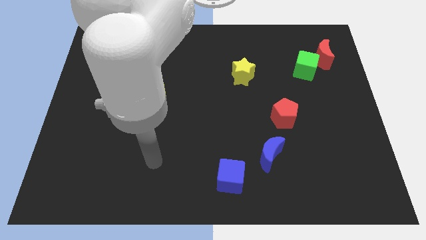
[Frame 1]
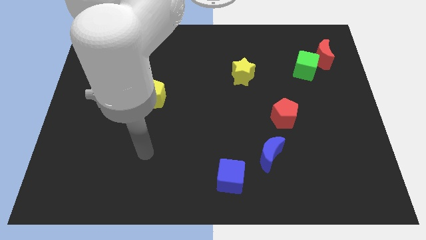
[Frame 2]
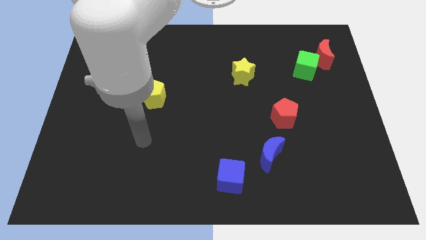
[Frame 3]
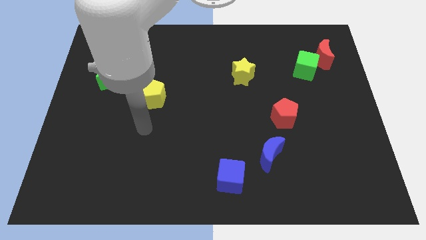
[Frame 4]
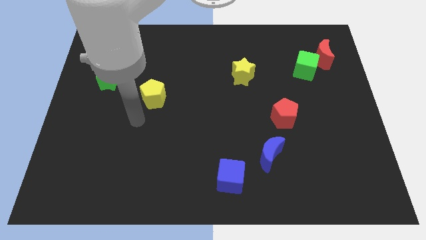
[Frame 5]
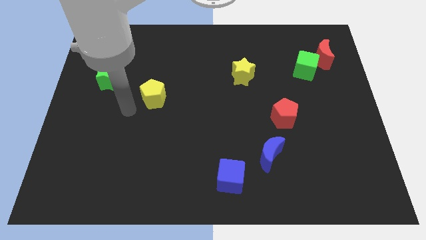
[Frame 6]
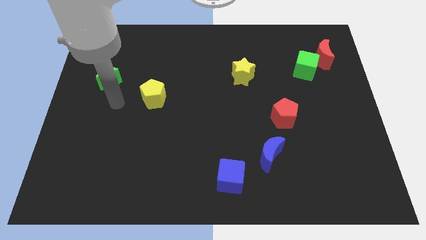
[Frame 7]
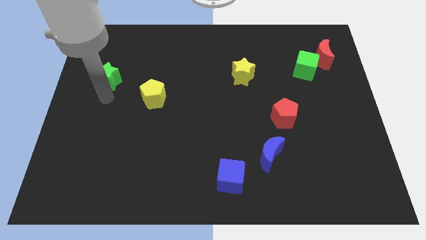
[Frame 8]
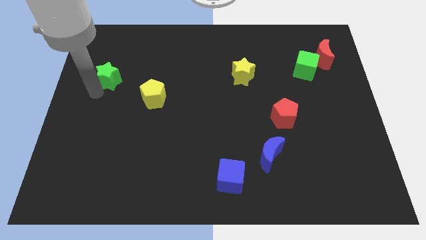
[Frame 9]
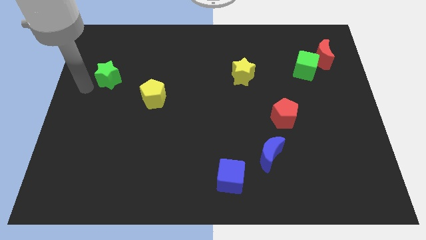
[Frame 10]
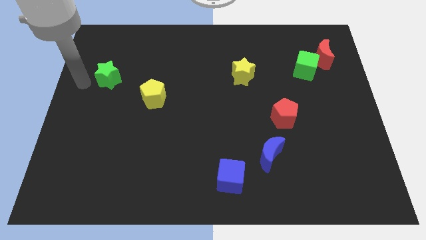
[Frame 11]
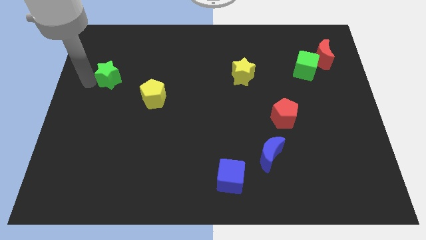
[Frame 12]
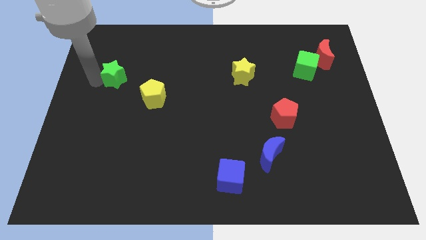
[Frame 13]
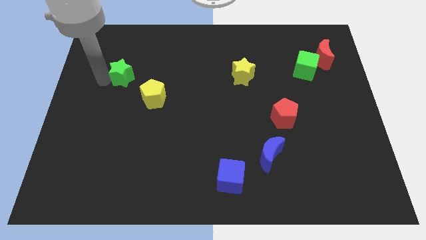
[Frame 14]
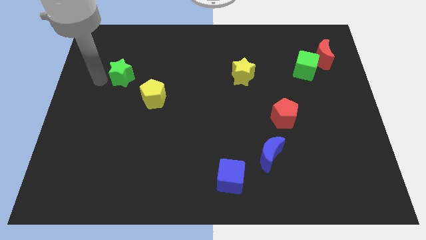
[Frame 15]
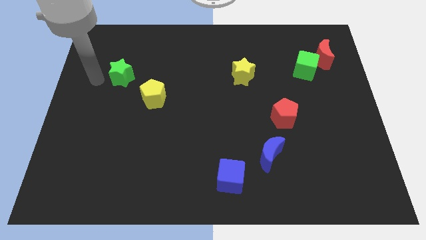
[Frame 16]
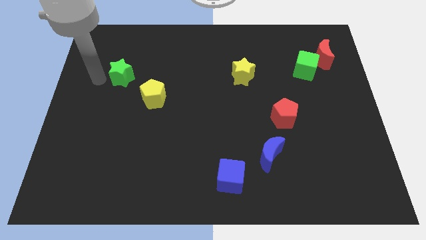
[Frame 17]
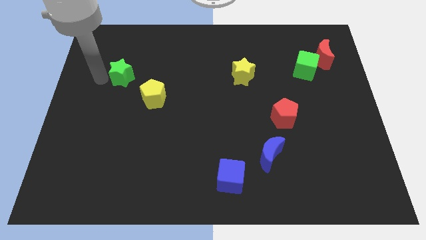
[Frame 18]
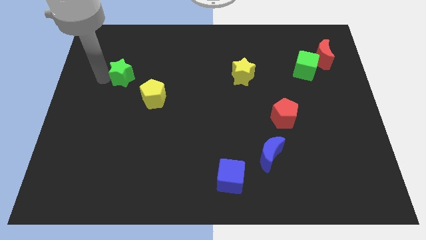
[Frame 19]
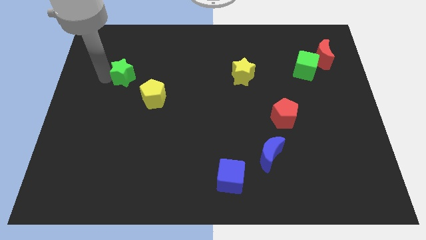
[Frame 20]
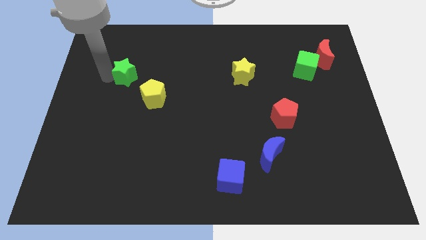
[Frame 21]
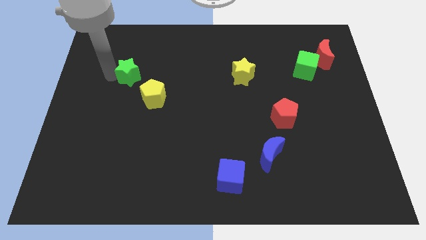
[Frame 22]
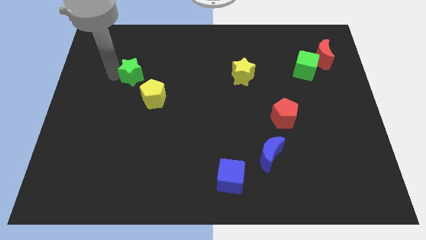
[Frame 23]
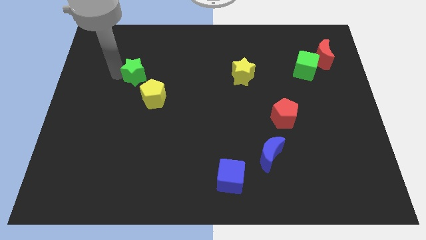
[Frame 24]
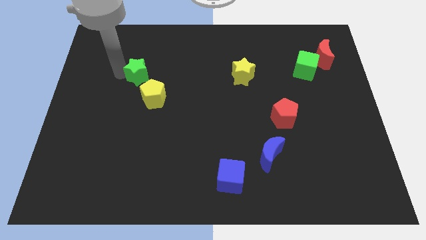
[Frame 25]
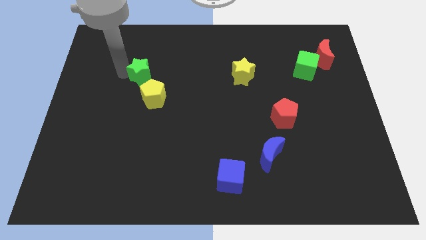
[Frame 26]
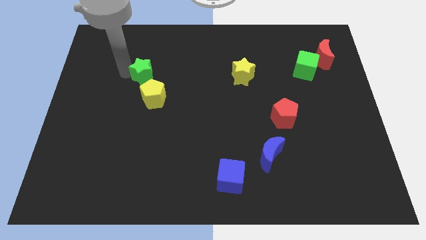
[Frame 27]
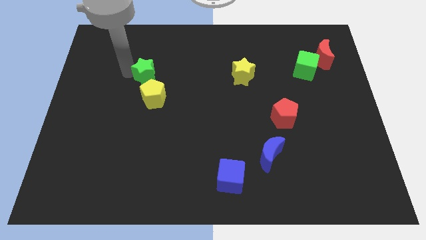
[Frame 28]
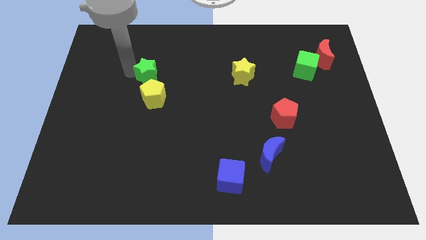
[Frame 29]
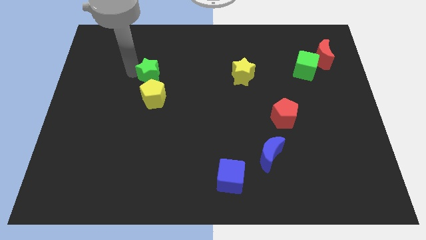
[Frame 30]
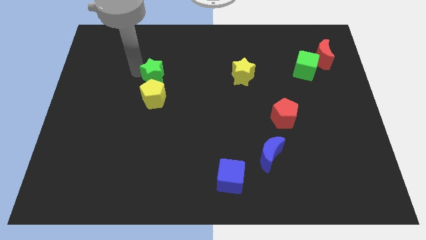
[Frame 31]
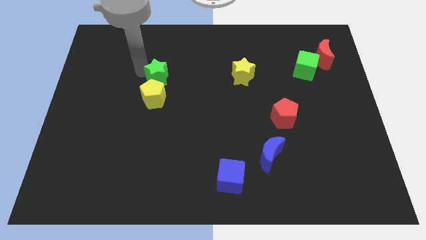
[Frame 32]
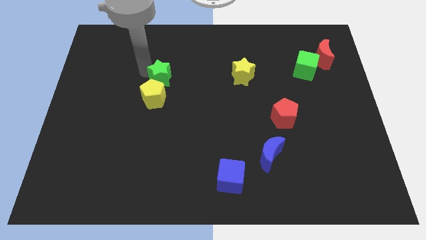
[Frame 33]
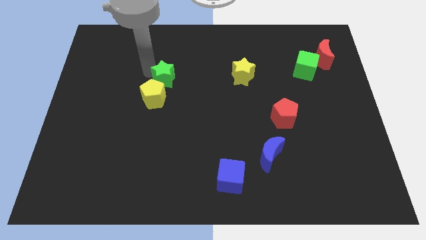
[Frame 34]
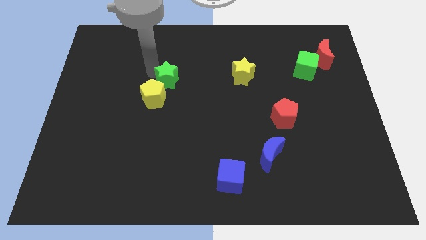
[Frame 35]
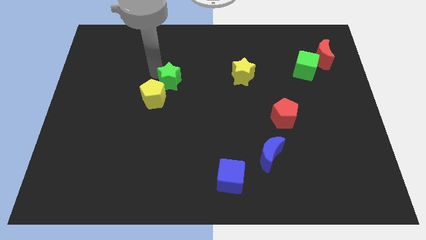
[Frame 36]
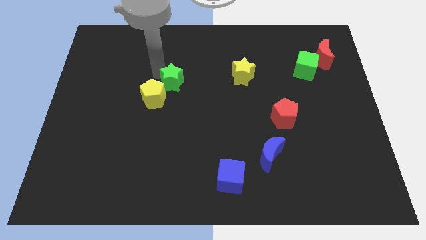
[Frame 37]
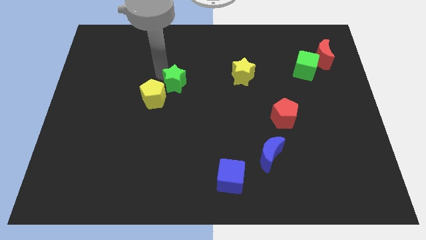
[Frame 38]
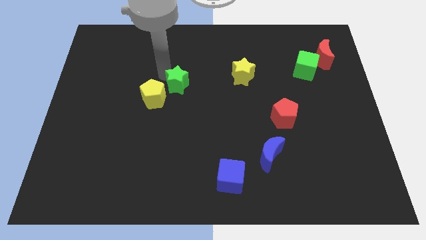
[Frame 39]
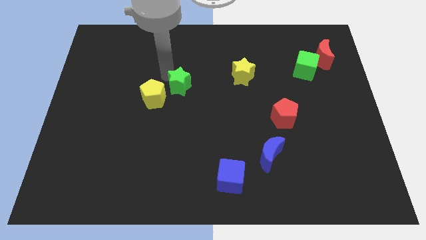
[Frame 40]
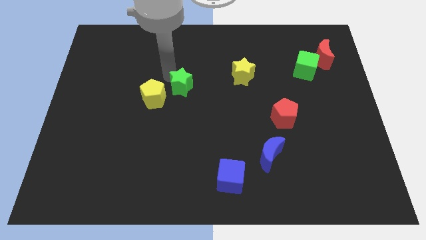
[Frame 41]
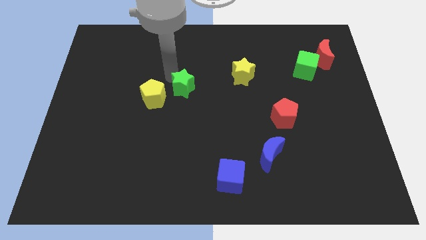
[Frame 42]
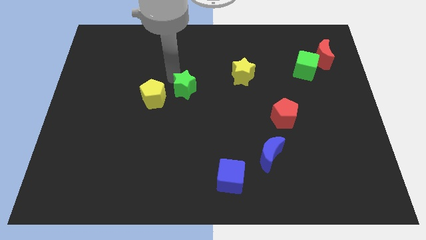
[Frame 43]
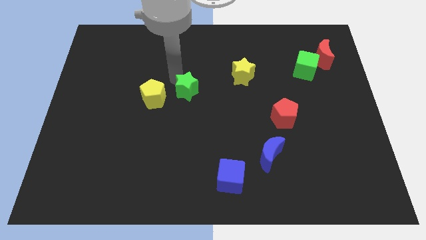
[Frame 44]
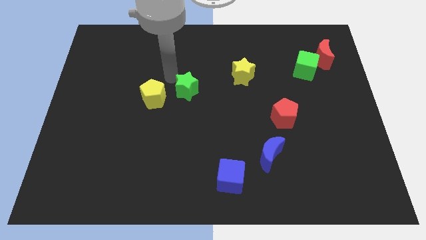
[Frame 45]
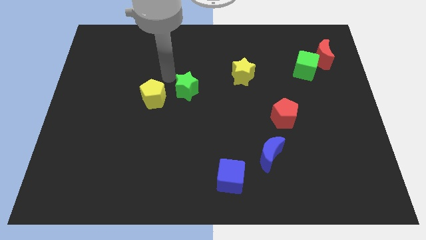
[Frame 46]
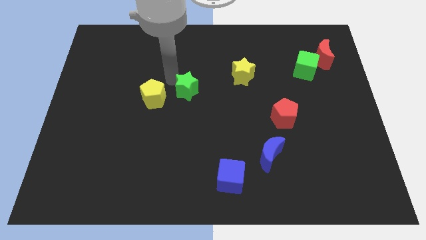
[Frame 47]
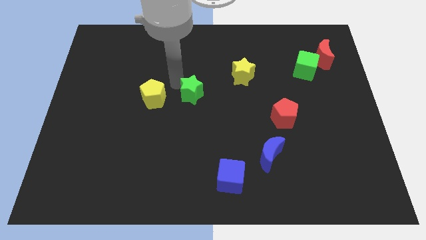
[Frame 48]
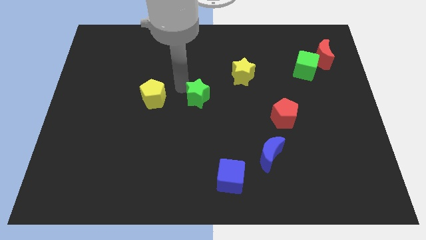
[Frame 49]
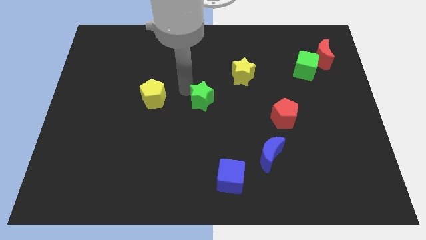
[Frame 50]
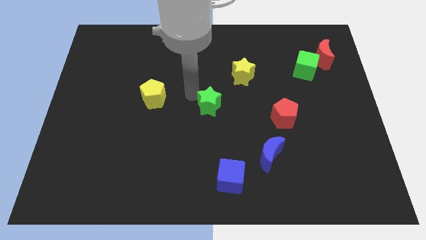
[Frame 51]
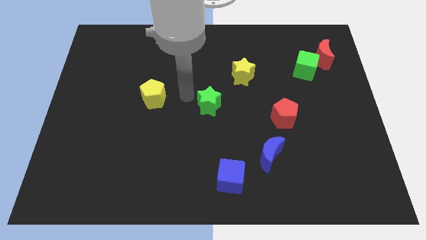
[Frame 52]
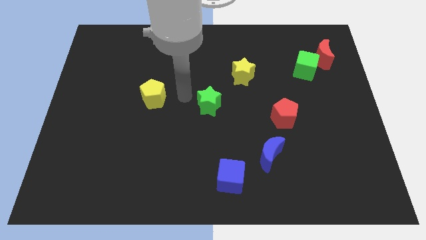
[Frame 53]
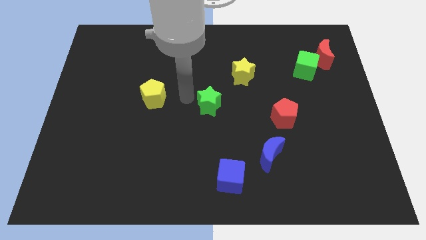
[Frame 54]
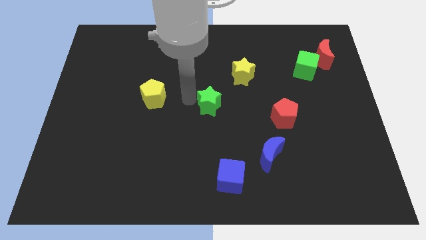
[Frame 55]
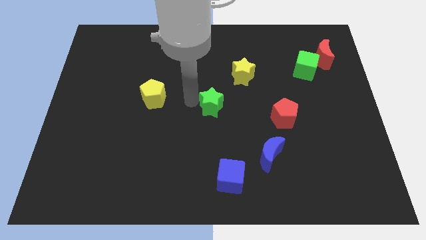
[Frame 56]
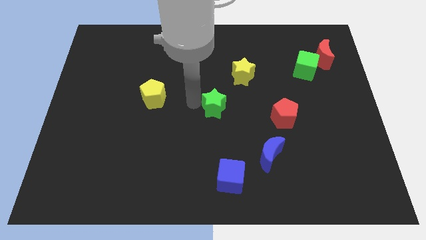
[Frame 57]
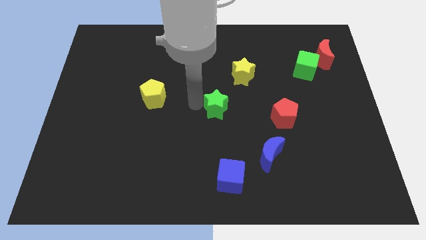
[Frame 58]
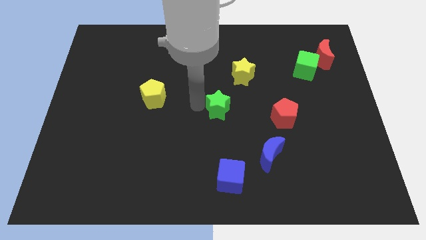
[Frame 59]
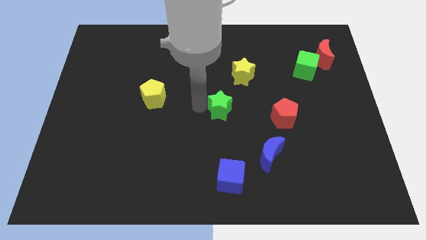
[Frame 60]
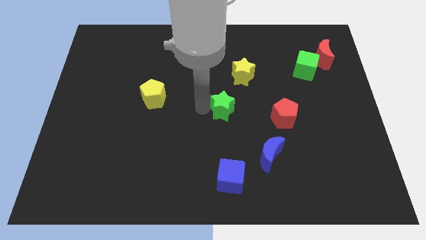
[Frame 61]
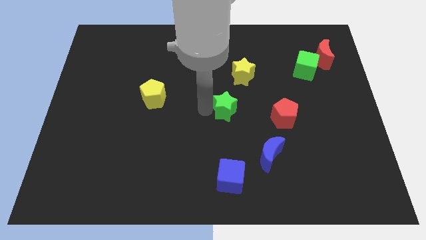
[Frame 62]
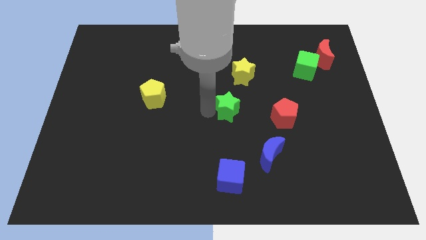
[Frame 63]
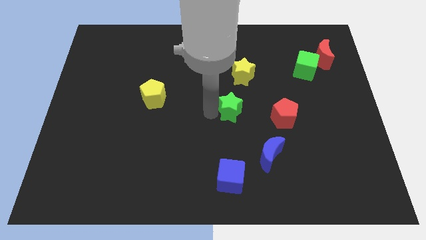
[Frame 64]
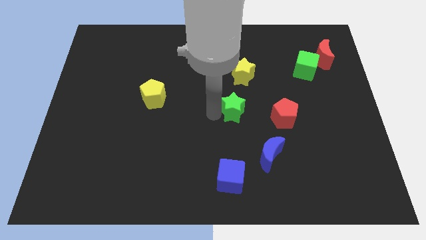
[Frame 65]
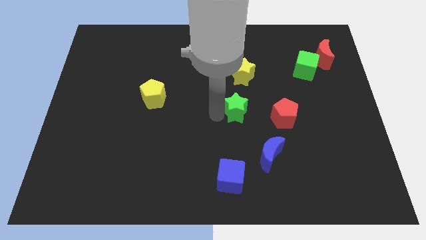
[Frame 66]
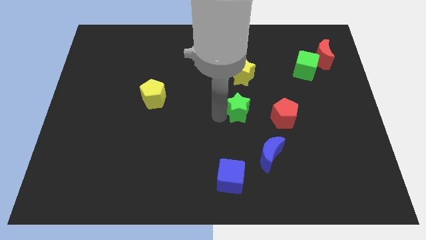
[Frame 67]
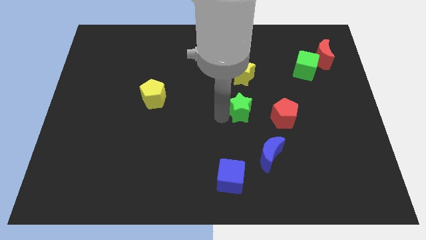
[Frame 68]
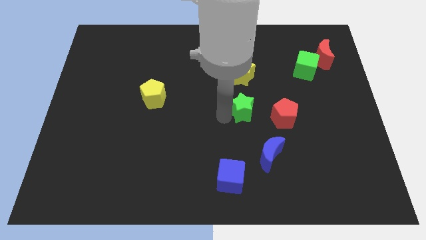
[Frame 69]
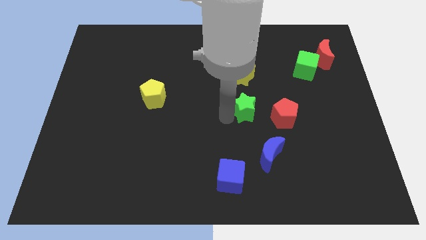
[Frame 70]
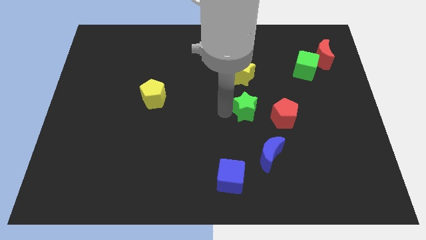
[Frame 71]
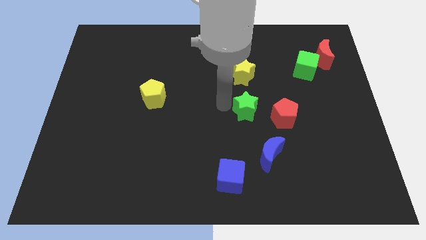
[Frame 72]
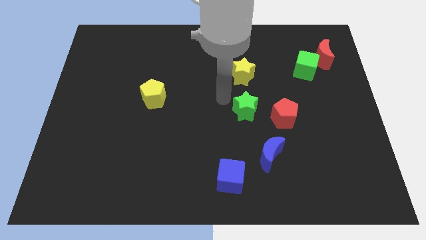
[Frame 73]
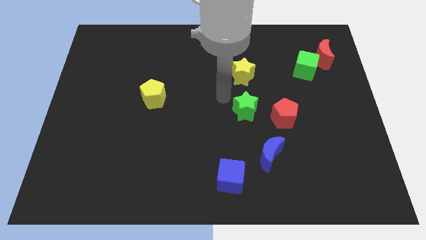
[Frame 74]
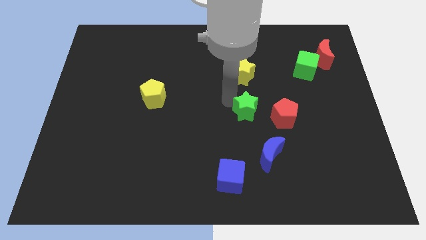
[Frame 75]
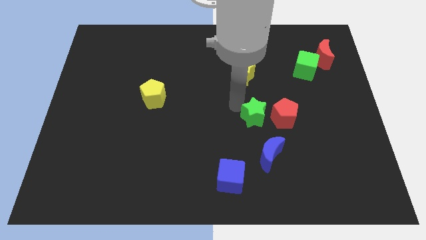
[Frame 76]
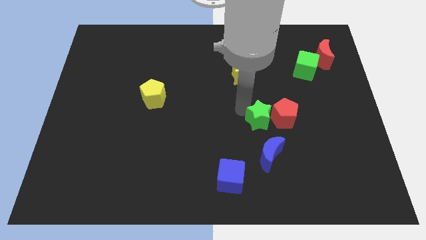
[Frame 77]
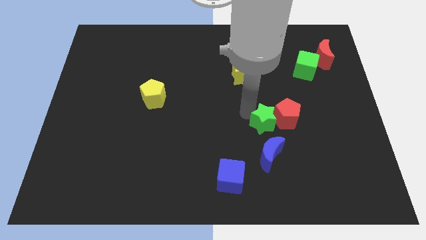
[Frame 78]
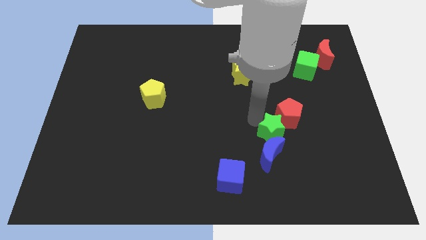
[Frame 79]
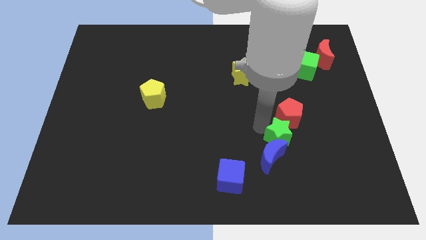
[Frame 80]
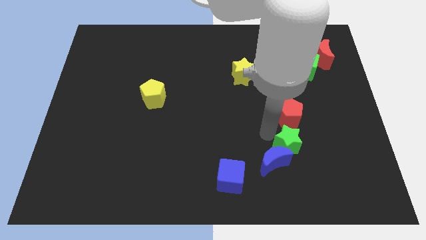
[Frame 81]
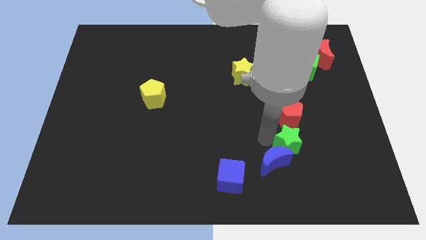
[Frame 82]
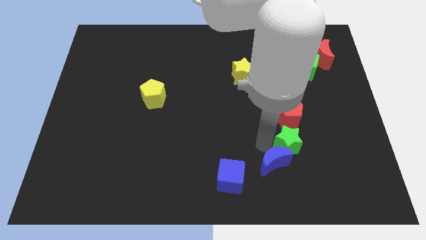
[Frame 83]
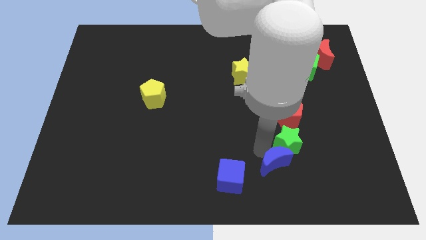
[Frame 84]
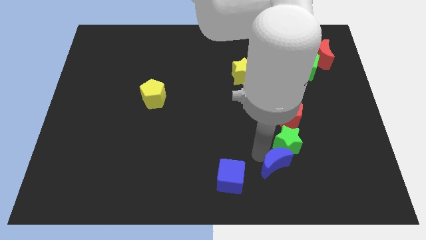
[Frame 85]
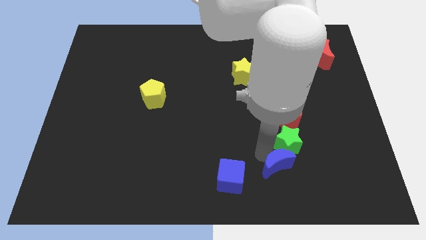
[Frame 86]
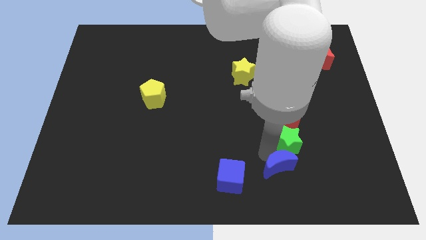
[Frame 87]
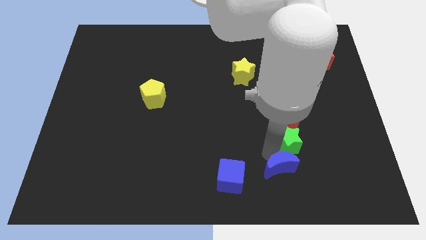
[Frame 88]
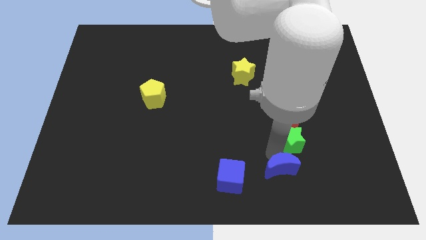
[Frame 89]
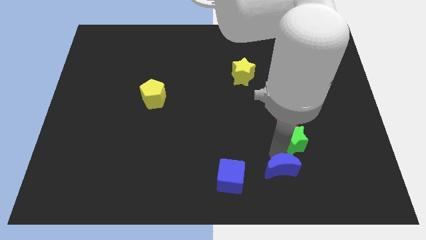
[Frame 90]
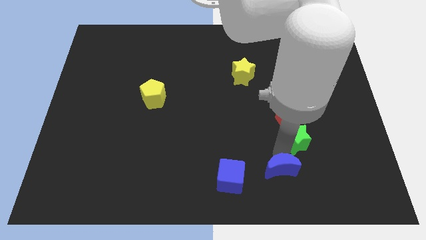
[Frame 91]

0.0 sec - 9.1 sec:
push the green star to the bottom right of the red pentagon
